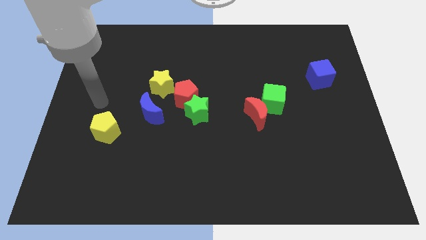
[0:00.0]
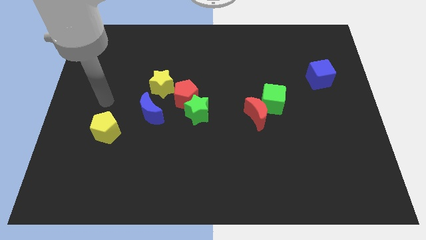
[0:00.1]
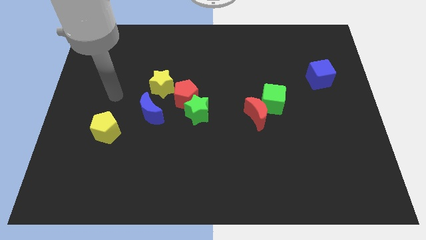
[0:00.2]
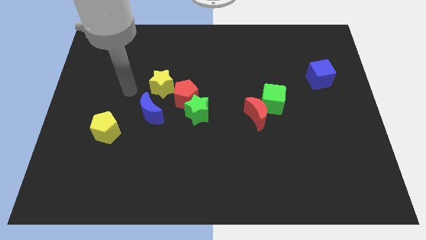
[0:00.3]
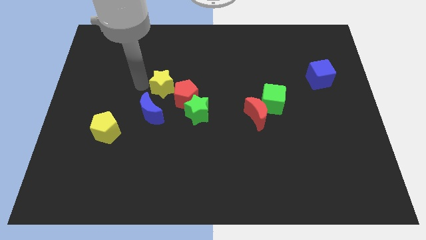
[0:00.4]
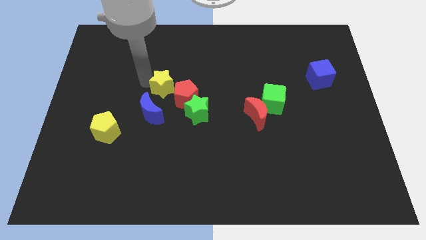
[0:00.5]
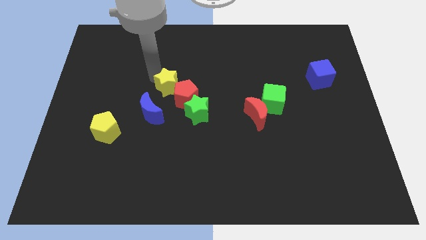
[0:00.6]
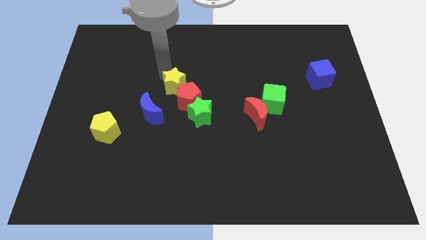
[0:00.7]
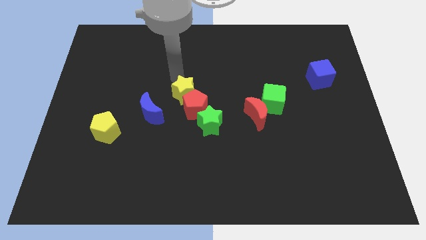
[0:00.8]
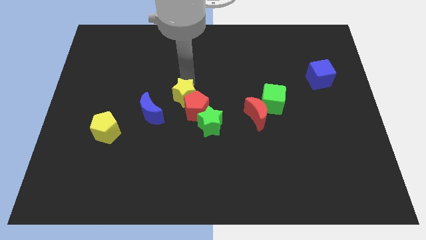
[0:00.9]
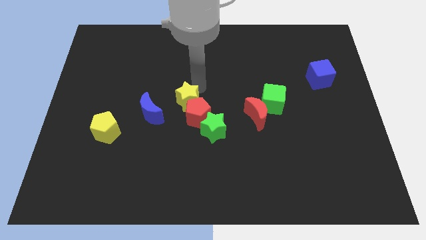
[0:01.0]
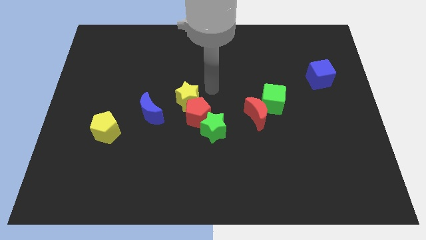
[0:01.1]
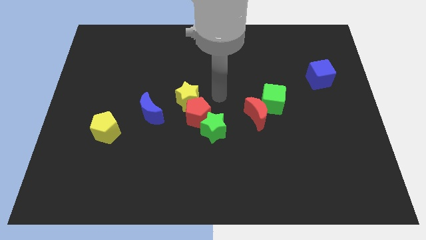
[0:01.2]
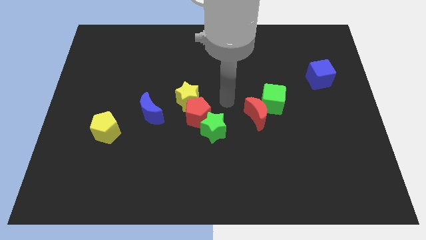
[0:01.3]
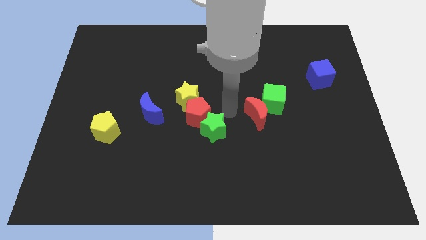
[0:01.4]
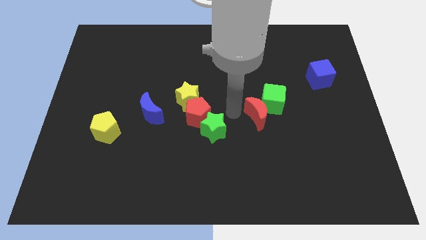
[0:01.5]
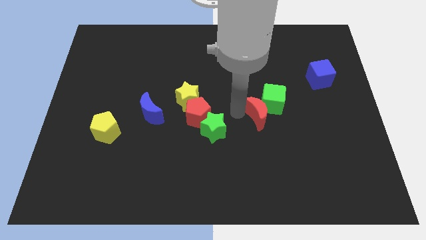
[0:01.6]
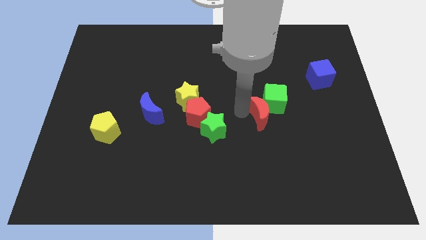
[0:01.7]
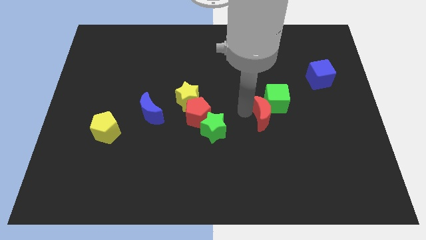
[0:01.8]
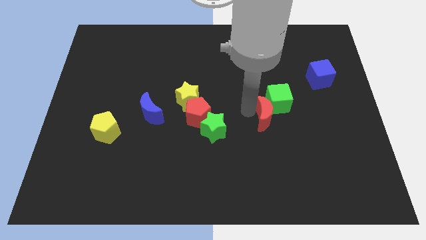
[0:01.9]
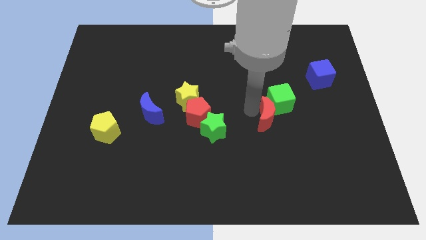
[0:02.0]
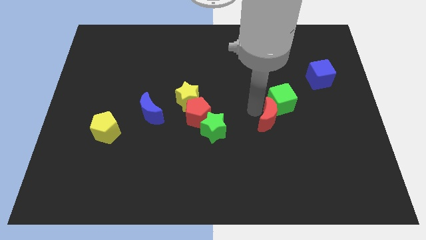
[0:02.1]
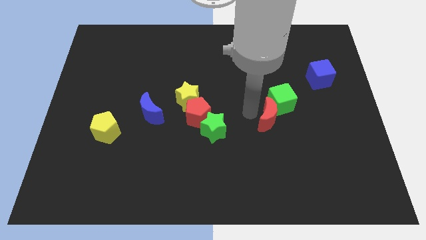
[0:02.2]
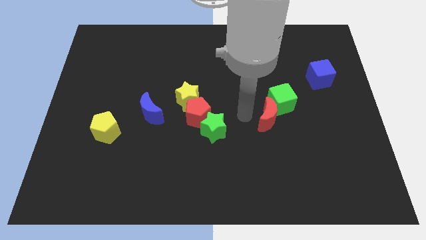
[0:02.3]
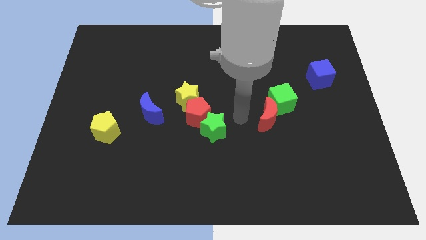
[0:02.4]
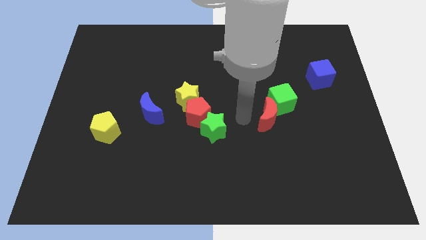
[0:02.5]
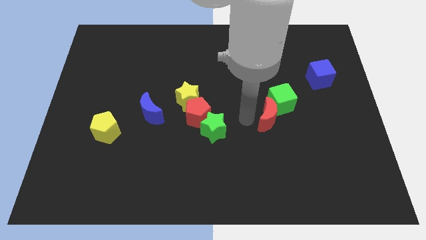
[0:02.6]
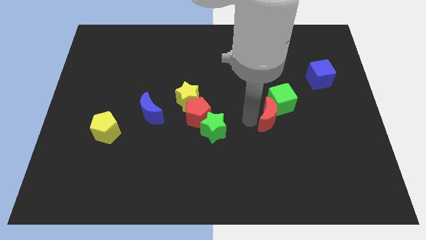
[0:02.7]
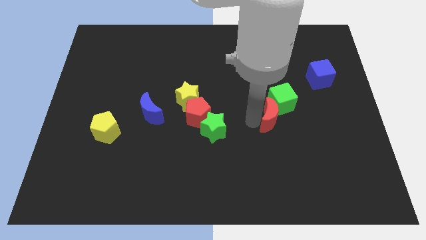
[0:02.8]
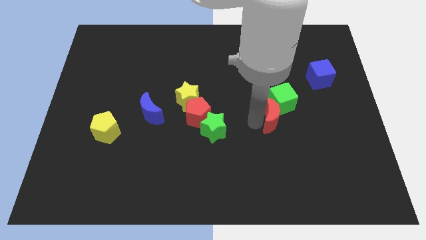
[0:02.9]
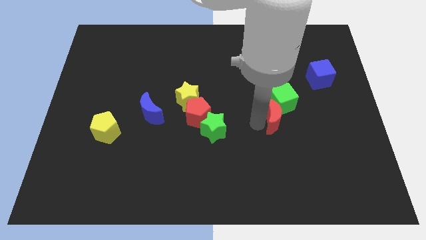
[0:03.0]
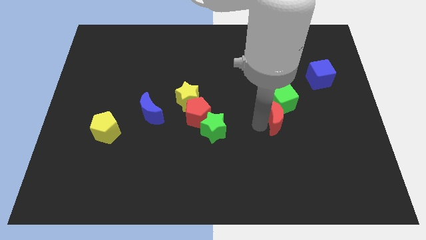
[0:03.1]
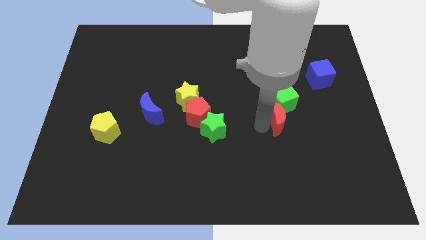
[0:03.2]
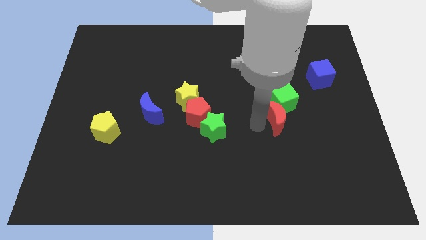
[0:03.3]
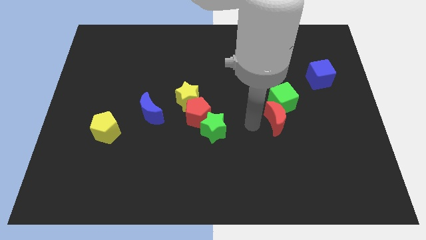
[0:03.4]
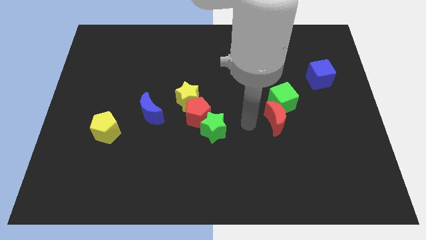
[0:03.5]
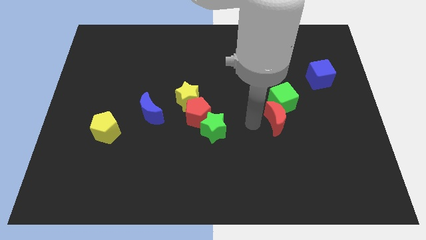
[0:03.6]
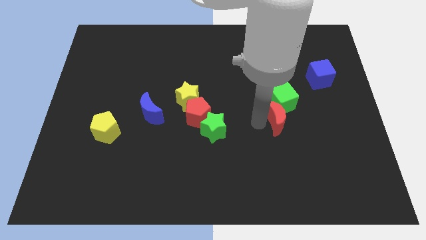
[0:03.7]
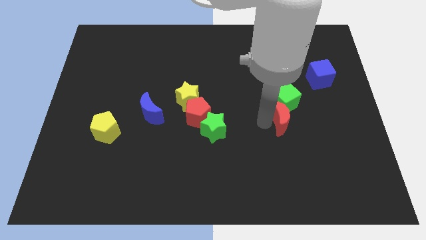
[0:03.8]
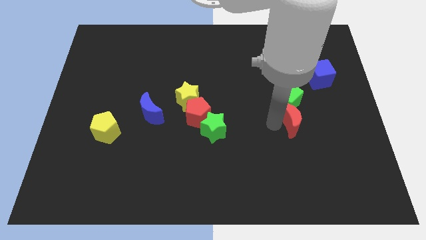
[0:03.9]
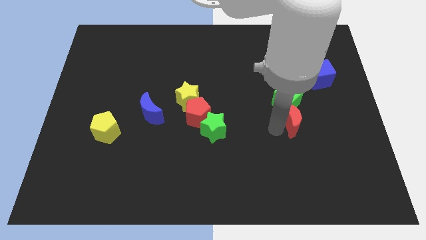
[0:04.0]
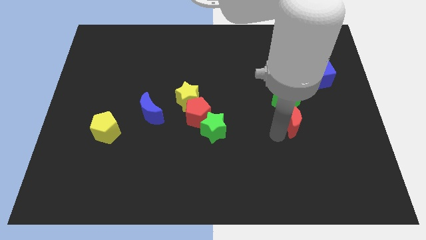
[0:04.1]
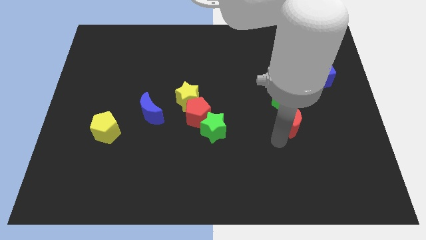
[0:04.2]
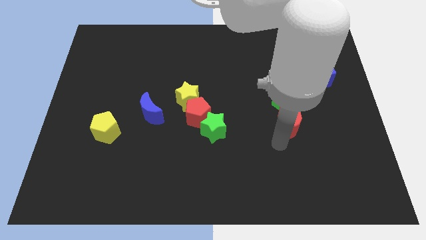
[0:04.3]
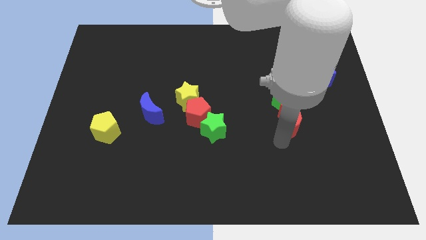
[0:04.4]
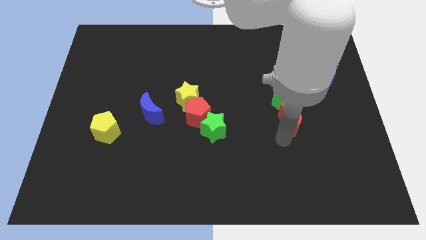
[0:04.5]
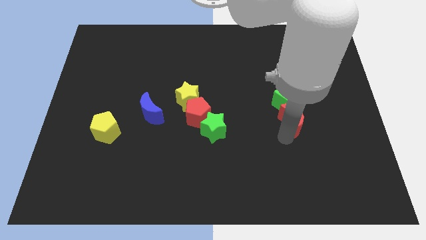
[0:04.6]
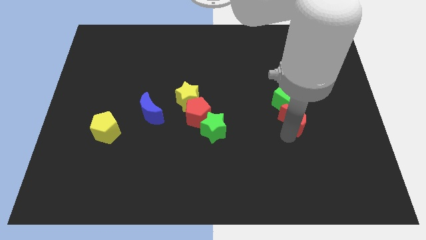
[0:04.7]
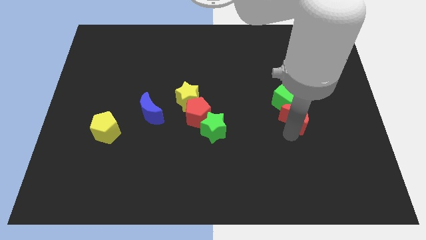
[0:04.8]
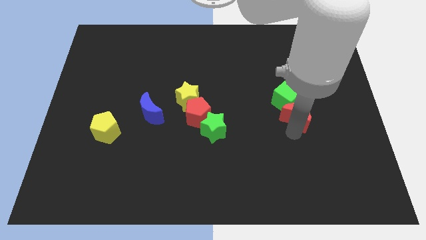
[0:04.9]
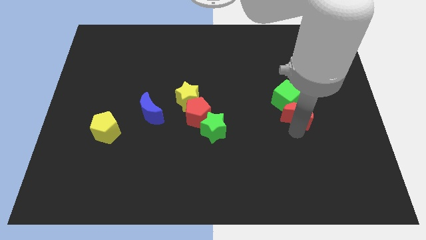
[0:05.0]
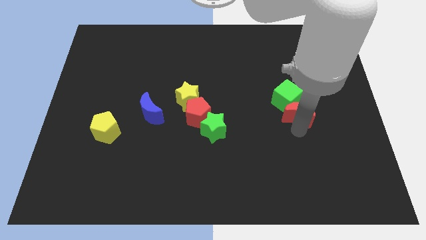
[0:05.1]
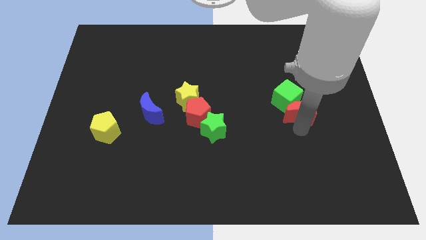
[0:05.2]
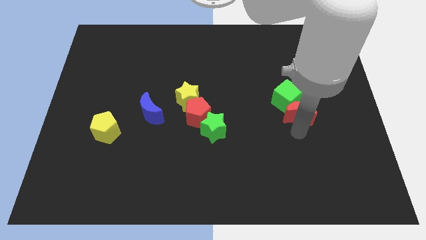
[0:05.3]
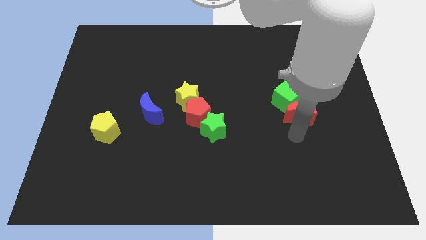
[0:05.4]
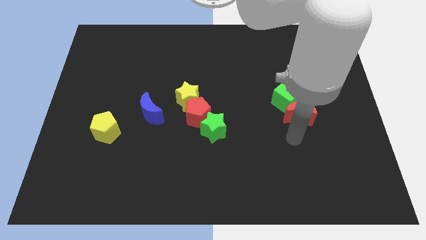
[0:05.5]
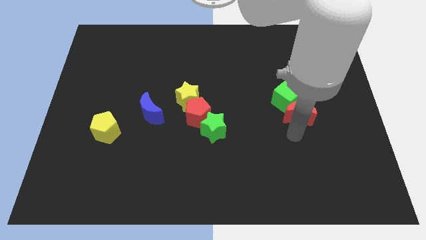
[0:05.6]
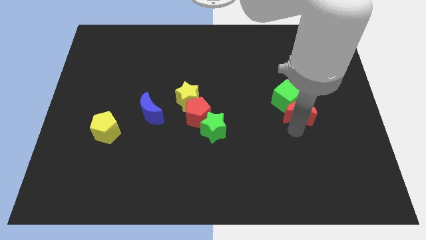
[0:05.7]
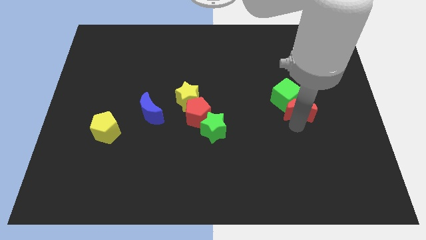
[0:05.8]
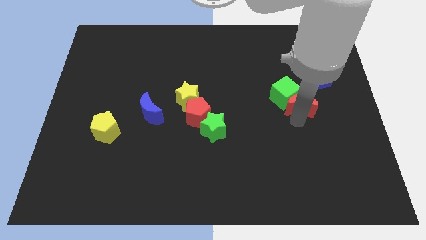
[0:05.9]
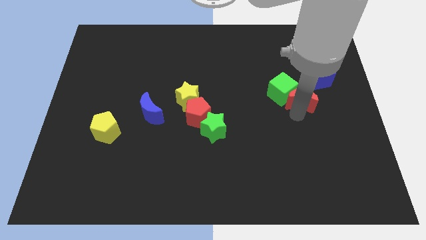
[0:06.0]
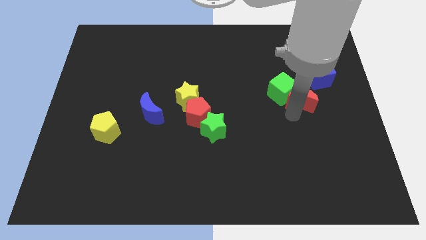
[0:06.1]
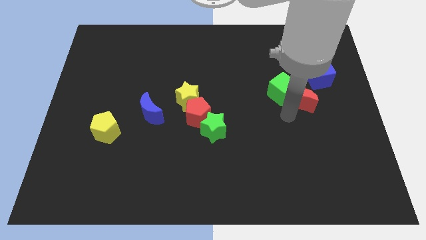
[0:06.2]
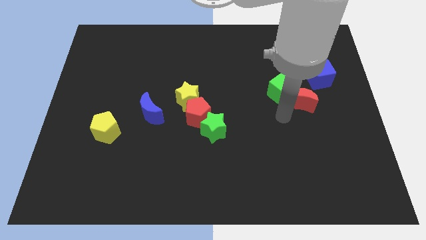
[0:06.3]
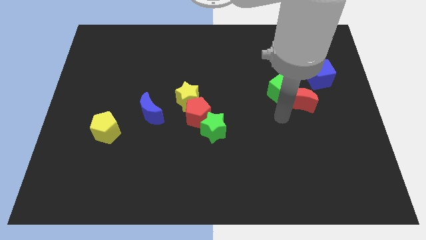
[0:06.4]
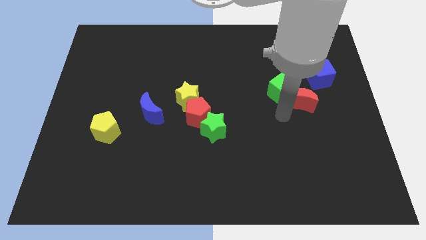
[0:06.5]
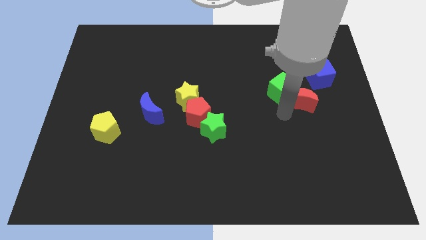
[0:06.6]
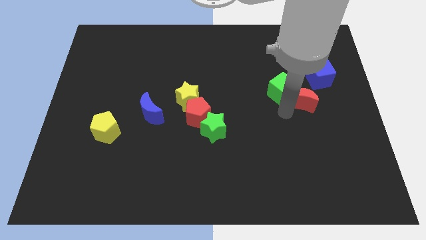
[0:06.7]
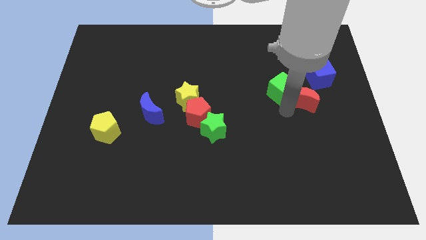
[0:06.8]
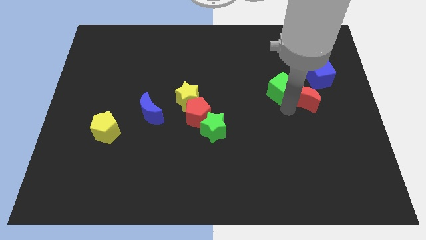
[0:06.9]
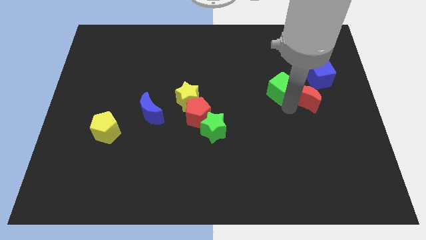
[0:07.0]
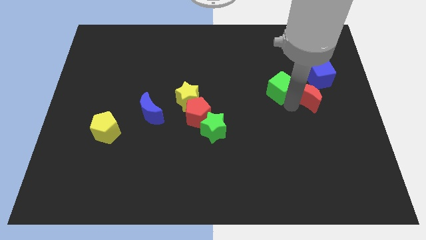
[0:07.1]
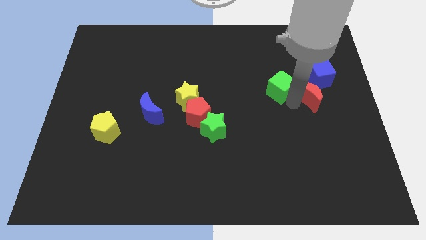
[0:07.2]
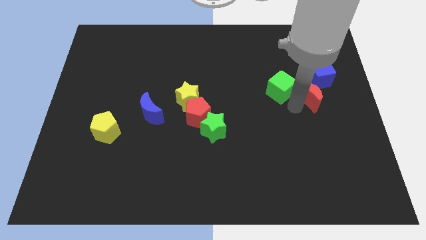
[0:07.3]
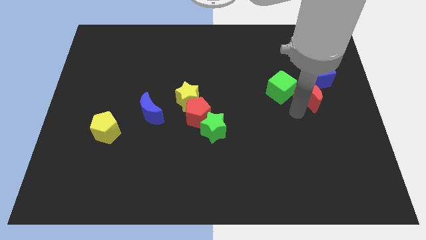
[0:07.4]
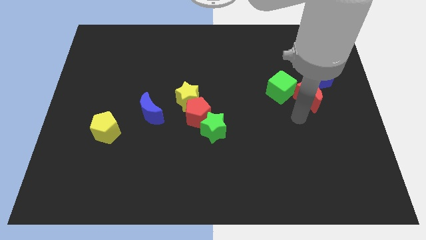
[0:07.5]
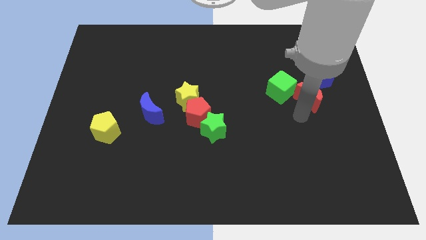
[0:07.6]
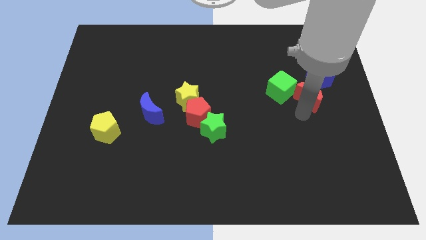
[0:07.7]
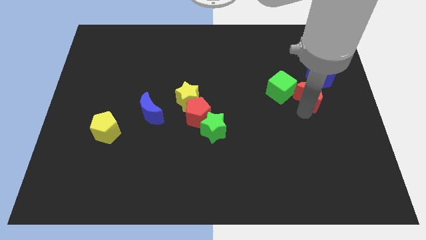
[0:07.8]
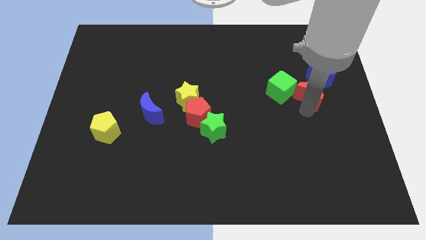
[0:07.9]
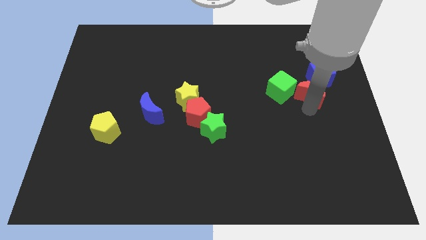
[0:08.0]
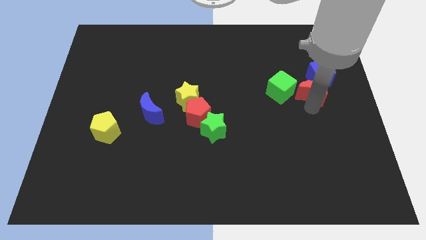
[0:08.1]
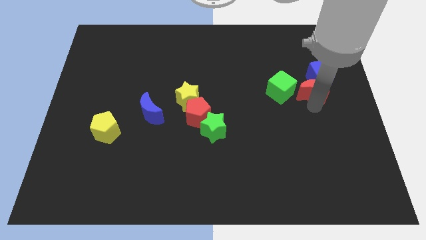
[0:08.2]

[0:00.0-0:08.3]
push the red moon close to the blue cube

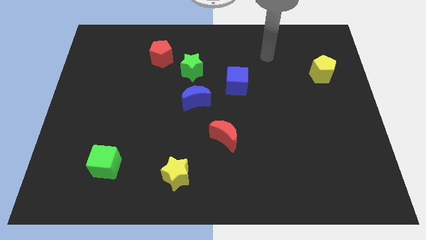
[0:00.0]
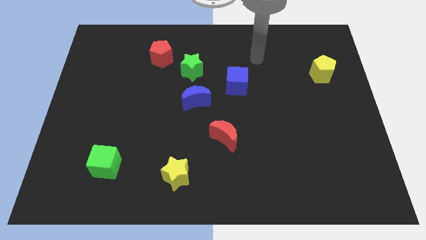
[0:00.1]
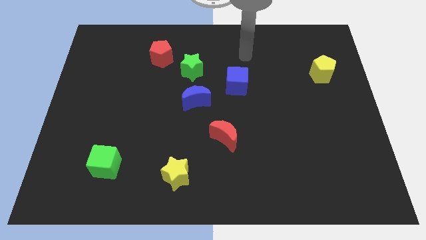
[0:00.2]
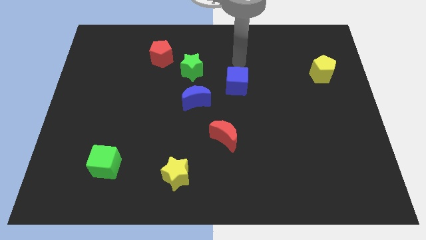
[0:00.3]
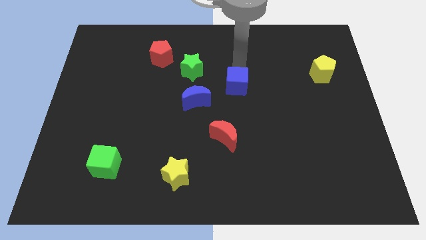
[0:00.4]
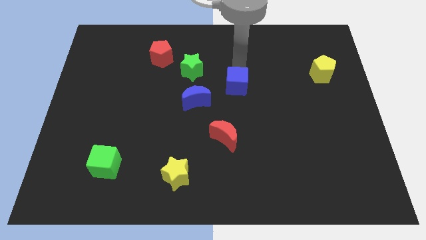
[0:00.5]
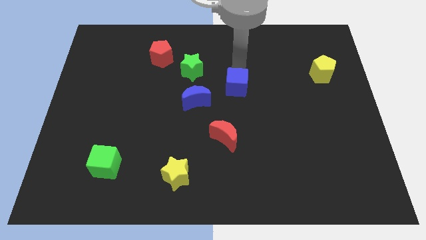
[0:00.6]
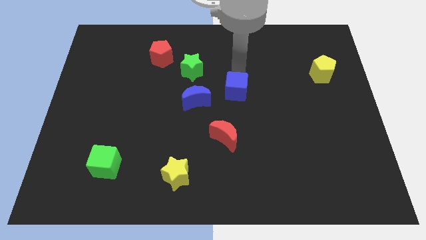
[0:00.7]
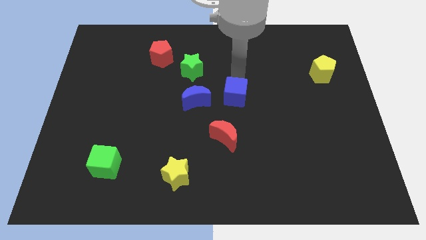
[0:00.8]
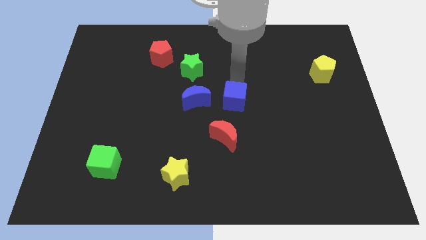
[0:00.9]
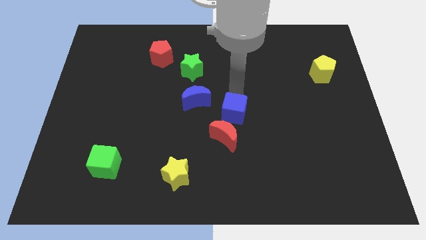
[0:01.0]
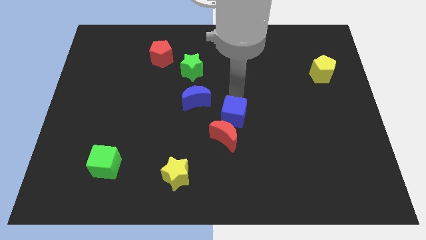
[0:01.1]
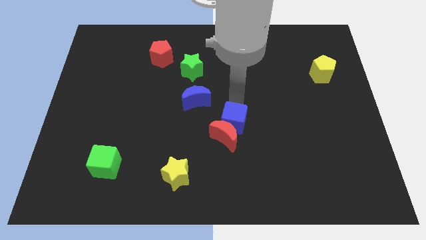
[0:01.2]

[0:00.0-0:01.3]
push the blue cube towards the red moon
